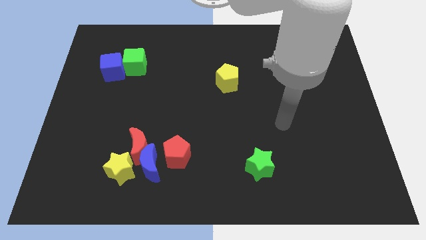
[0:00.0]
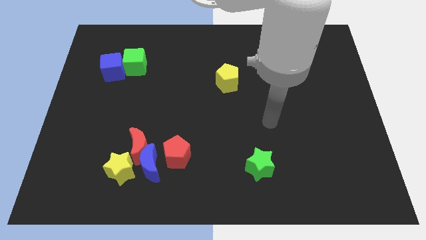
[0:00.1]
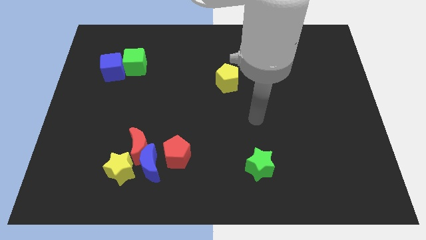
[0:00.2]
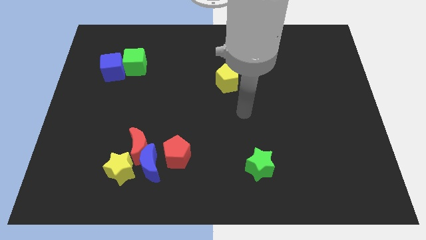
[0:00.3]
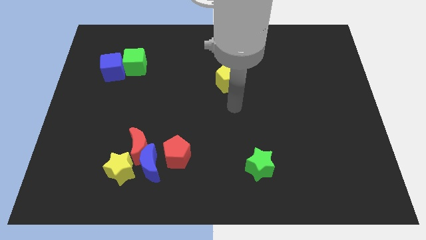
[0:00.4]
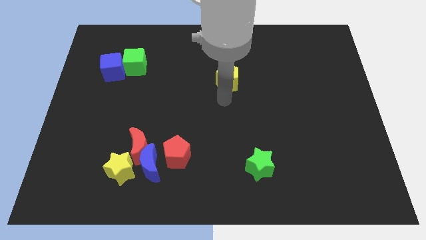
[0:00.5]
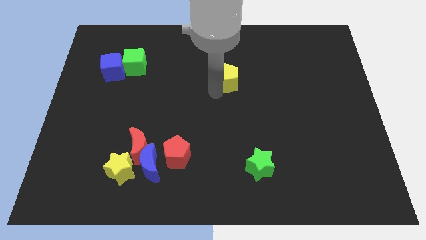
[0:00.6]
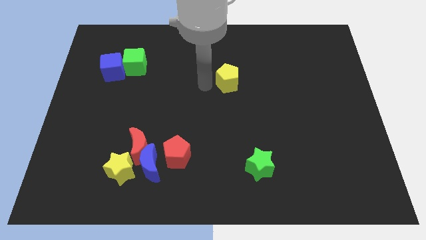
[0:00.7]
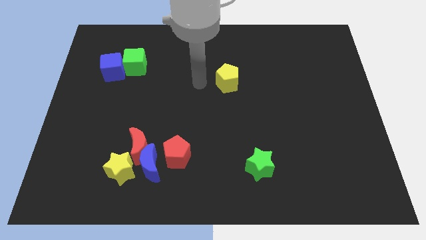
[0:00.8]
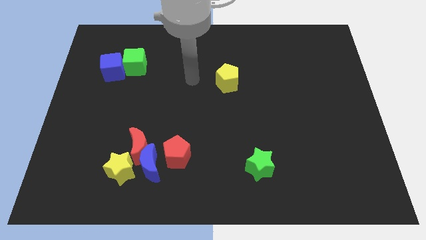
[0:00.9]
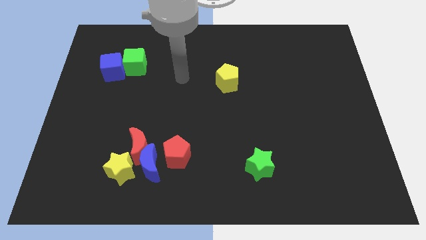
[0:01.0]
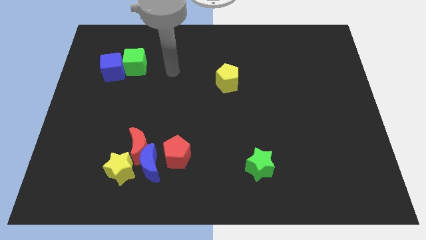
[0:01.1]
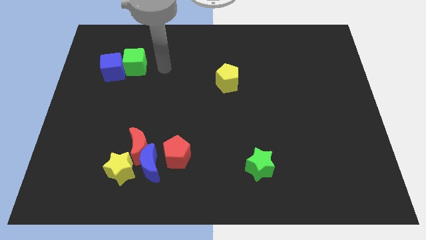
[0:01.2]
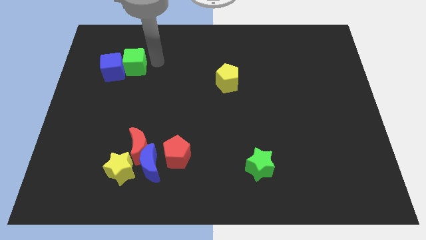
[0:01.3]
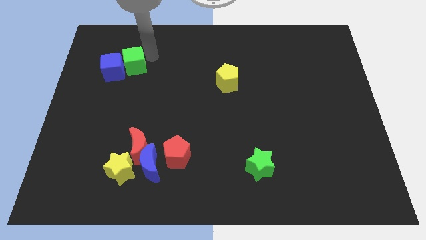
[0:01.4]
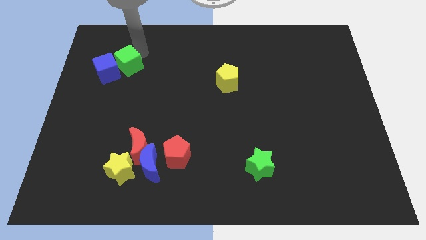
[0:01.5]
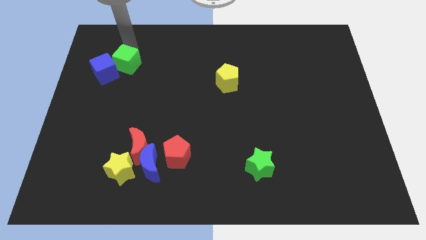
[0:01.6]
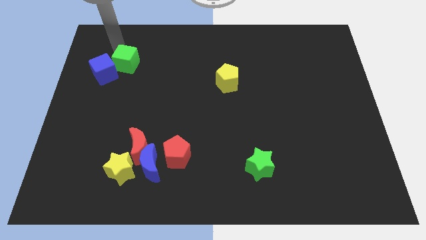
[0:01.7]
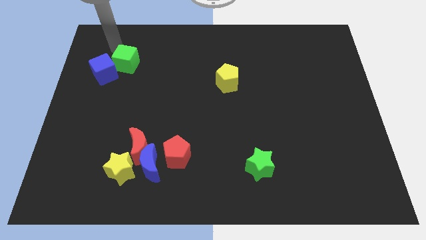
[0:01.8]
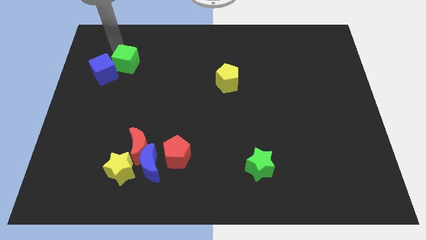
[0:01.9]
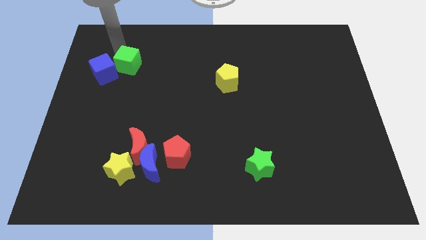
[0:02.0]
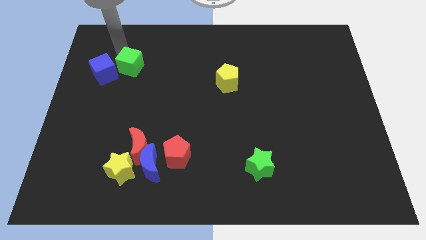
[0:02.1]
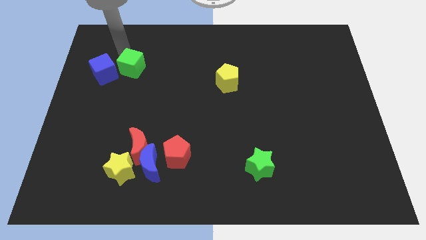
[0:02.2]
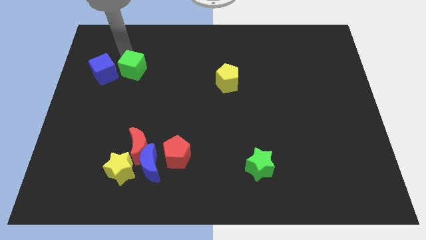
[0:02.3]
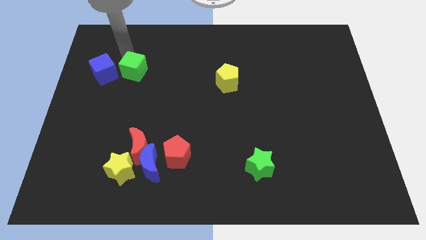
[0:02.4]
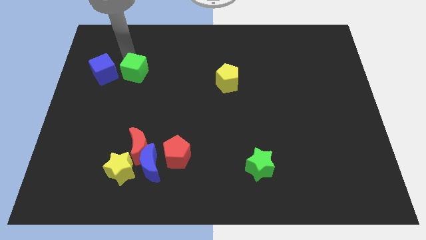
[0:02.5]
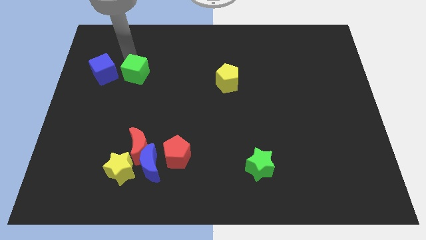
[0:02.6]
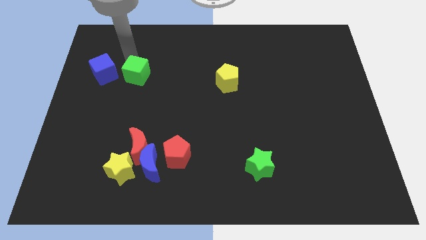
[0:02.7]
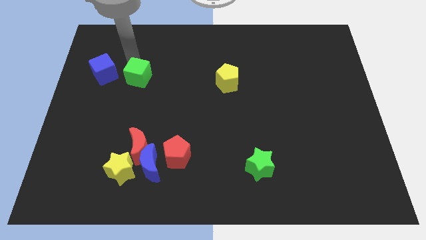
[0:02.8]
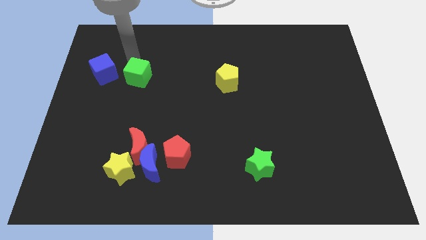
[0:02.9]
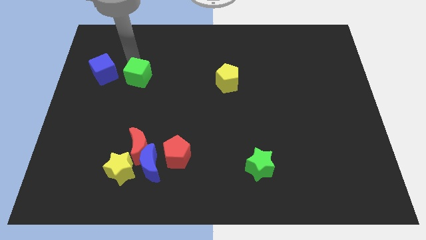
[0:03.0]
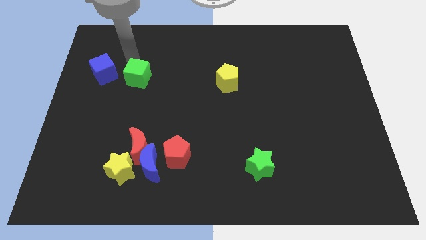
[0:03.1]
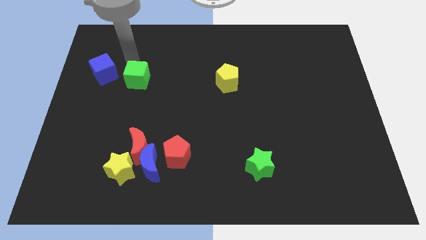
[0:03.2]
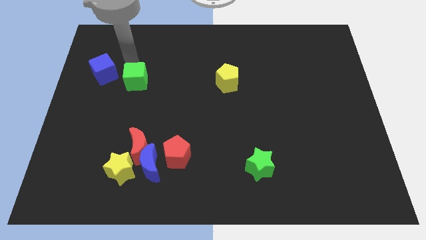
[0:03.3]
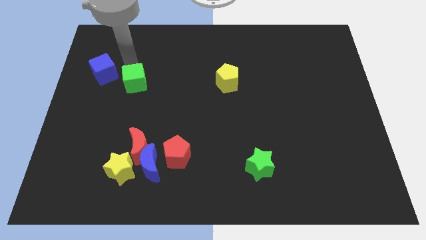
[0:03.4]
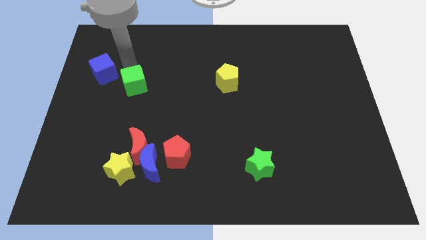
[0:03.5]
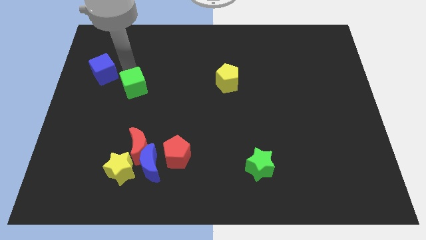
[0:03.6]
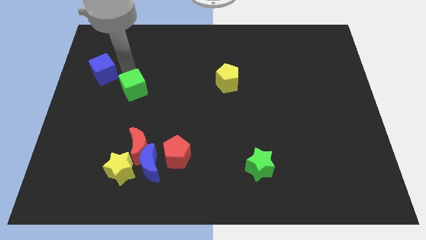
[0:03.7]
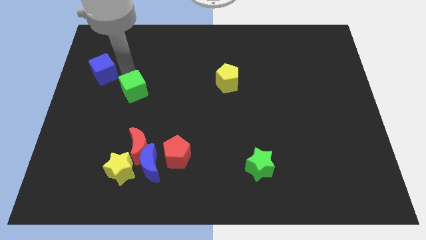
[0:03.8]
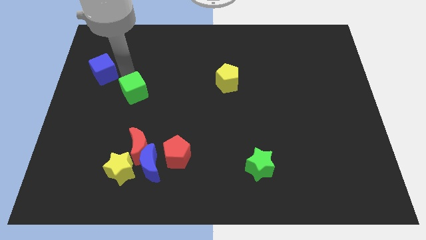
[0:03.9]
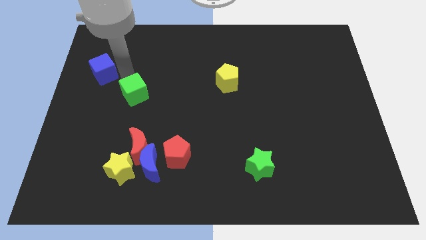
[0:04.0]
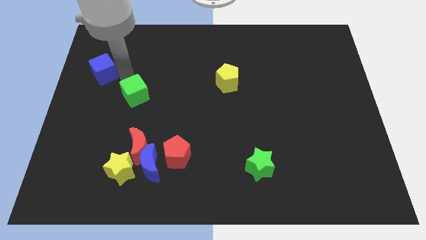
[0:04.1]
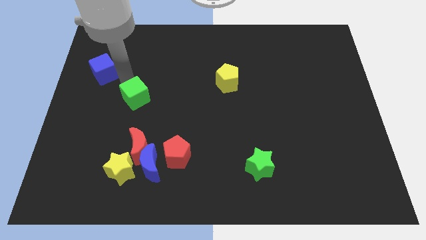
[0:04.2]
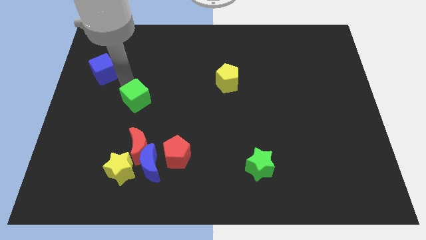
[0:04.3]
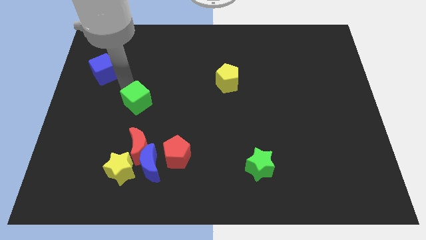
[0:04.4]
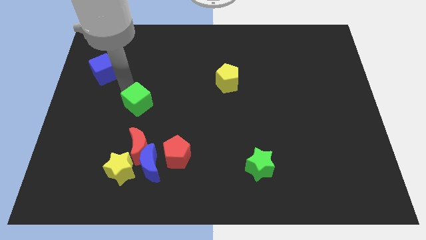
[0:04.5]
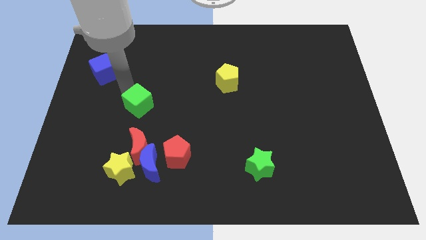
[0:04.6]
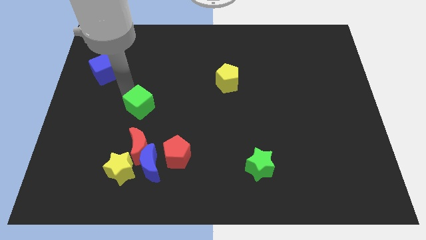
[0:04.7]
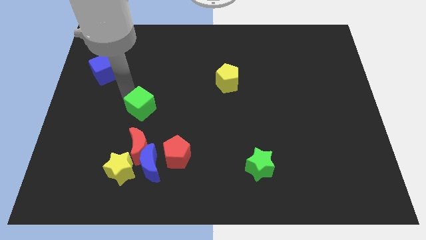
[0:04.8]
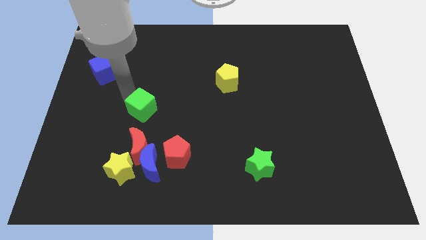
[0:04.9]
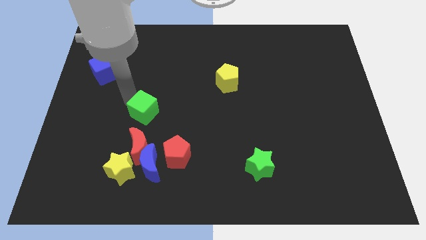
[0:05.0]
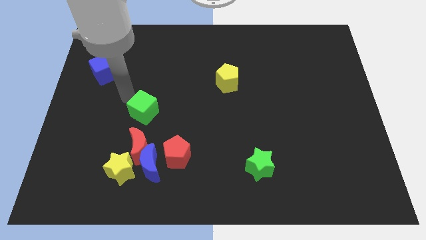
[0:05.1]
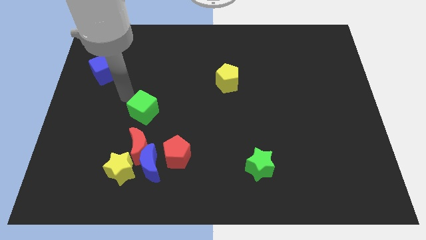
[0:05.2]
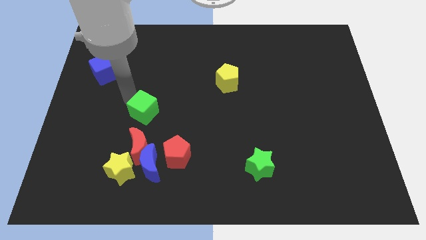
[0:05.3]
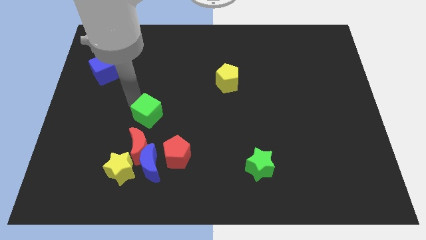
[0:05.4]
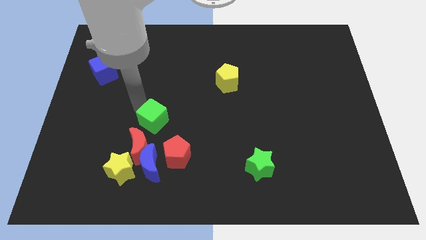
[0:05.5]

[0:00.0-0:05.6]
move the green cube to the top right side of the red moon

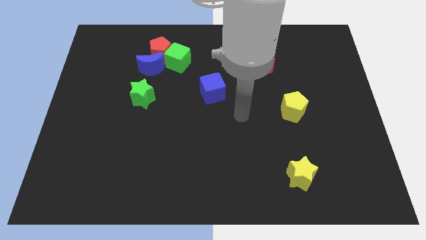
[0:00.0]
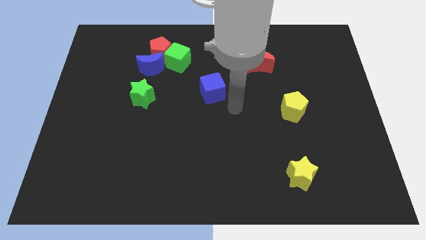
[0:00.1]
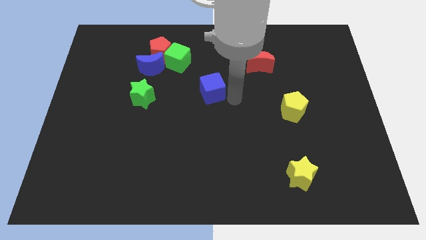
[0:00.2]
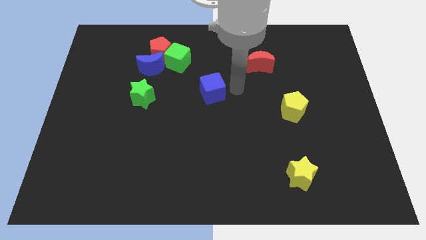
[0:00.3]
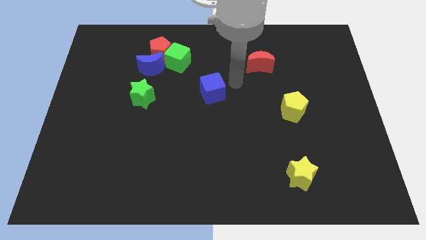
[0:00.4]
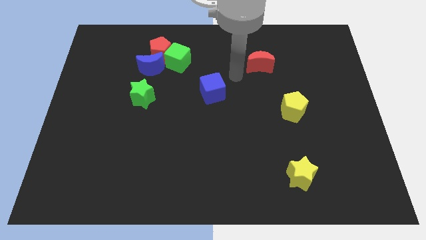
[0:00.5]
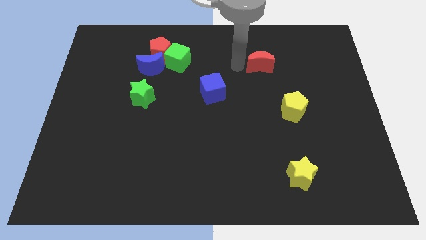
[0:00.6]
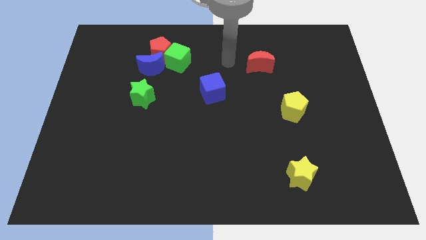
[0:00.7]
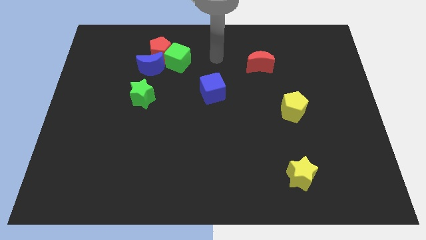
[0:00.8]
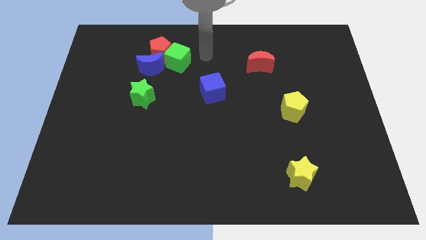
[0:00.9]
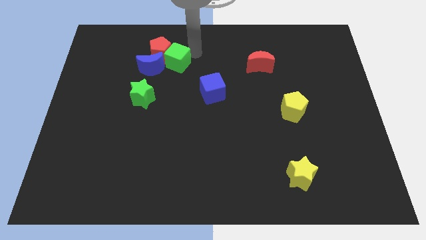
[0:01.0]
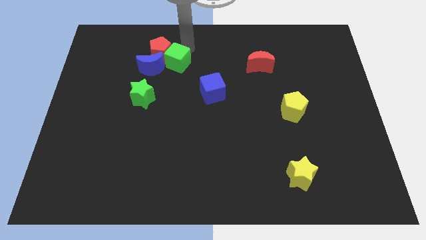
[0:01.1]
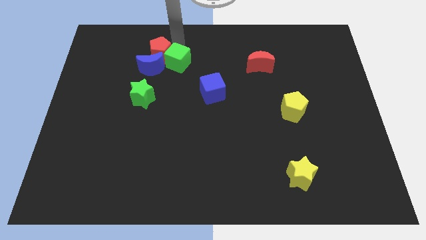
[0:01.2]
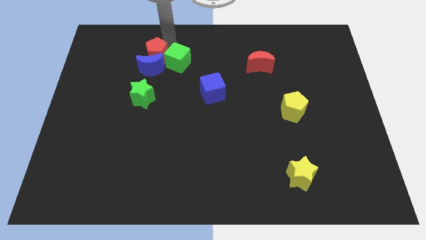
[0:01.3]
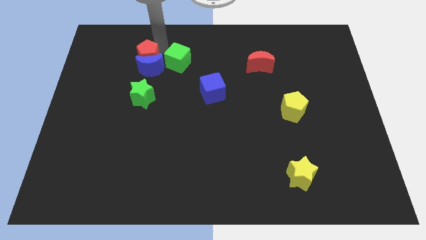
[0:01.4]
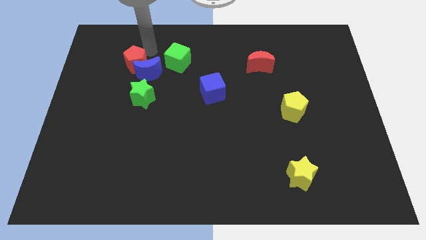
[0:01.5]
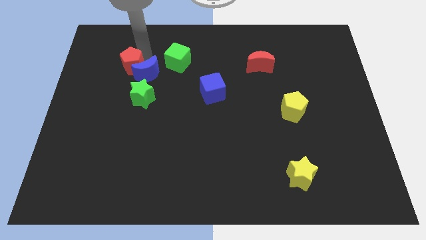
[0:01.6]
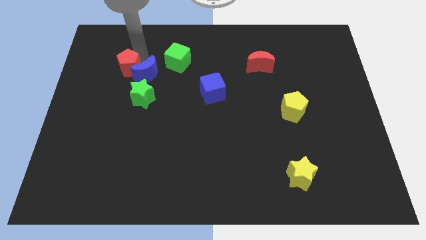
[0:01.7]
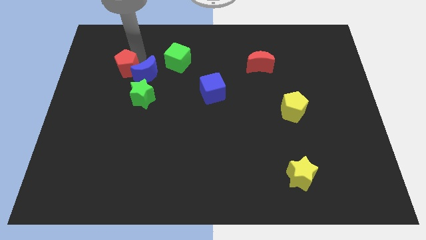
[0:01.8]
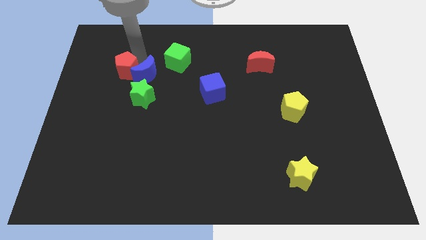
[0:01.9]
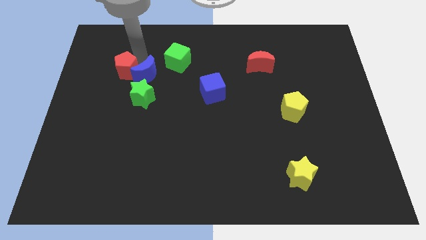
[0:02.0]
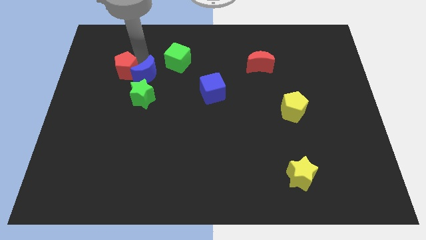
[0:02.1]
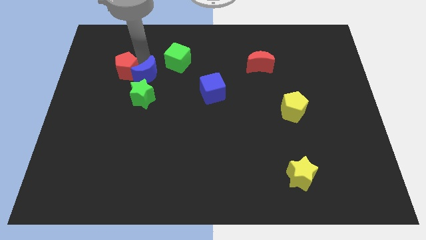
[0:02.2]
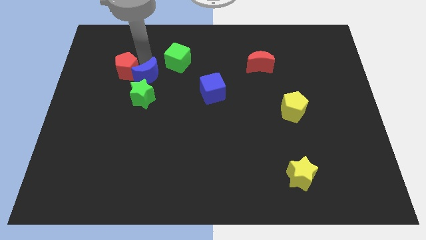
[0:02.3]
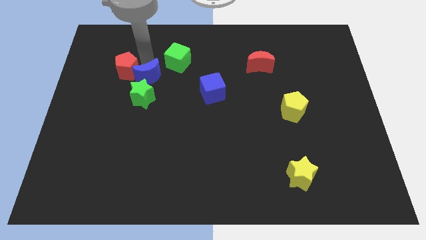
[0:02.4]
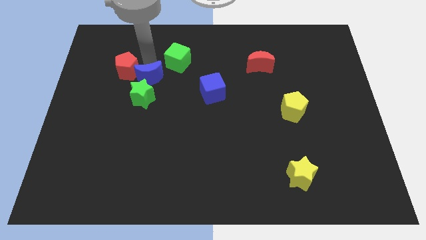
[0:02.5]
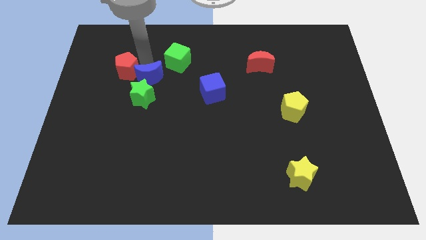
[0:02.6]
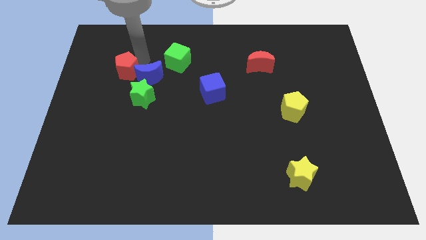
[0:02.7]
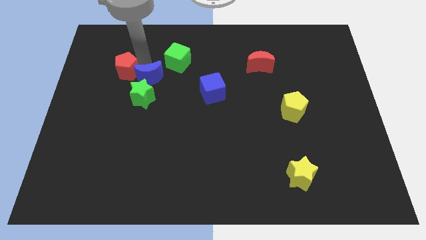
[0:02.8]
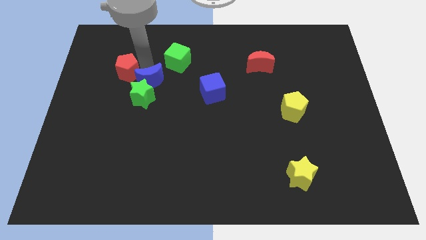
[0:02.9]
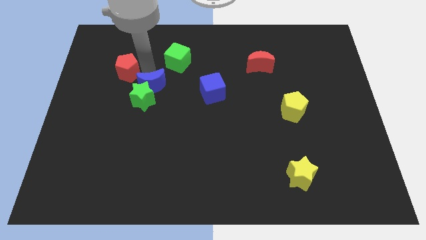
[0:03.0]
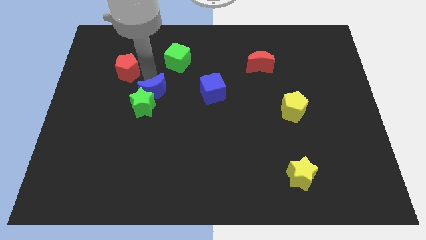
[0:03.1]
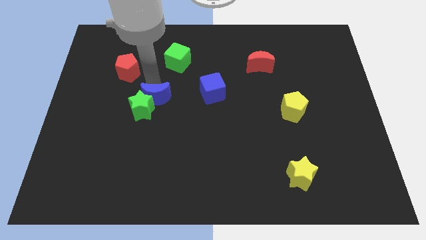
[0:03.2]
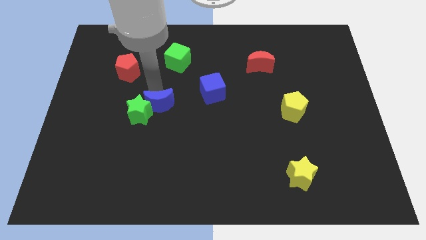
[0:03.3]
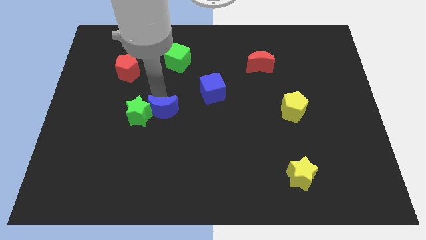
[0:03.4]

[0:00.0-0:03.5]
move the blue moon to the bottom right side of the green star
